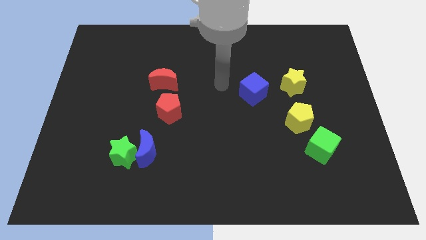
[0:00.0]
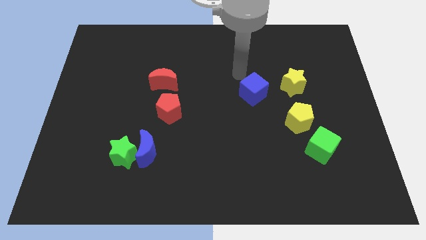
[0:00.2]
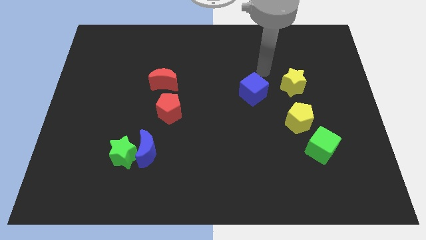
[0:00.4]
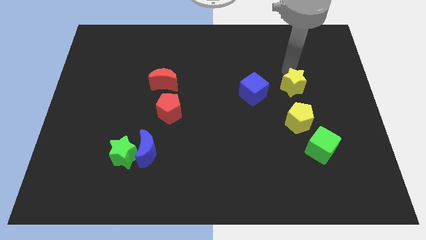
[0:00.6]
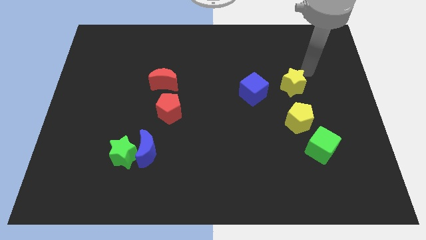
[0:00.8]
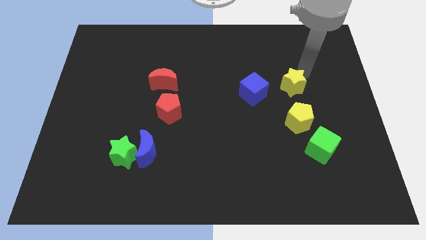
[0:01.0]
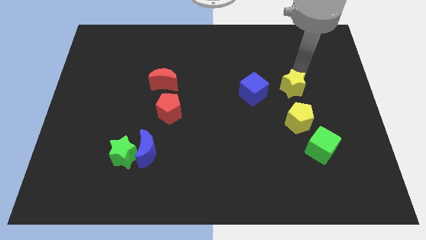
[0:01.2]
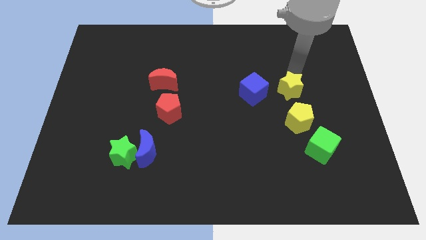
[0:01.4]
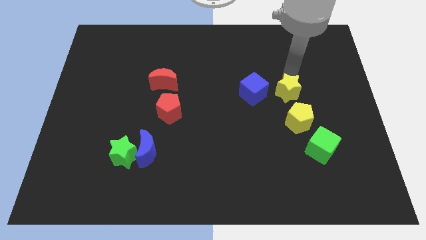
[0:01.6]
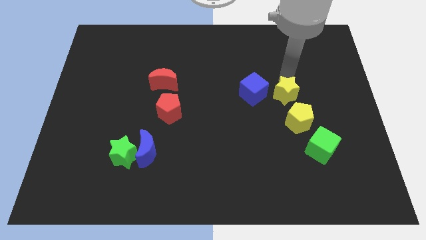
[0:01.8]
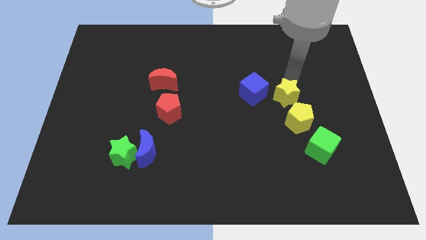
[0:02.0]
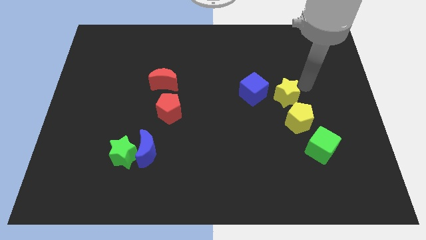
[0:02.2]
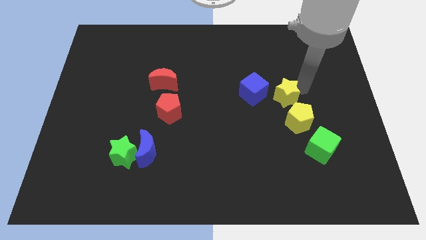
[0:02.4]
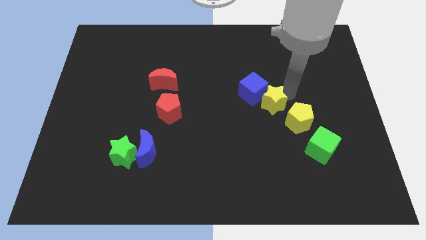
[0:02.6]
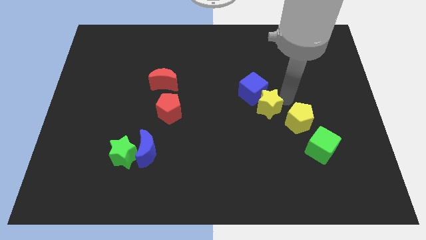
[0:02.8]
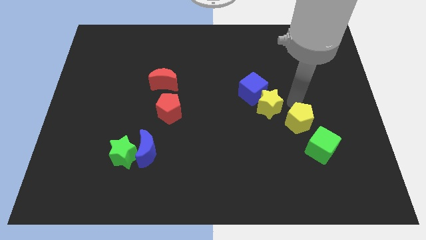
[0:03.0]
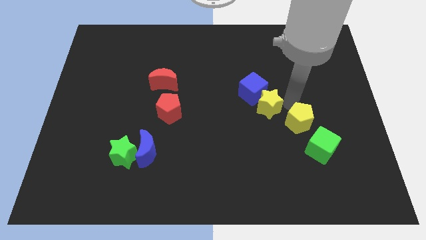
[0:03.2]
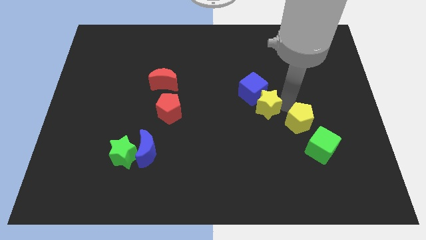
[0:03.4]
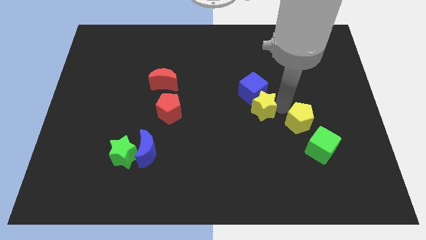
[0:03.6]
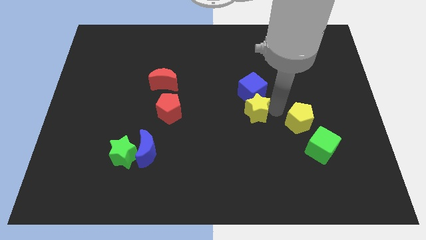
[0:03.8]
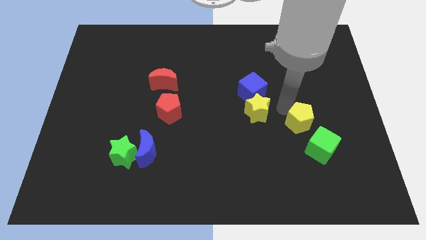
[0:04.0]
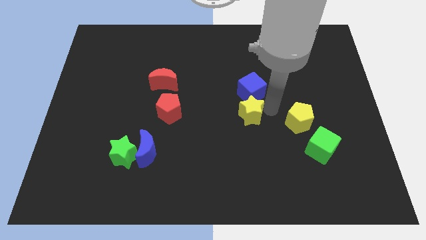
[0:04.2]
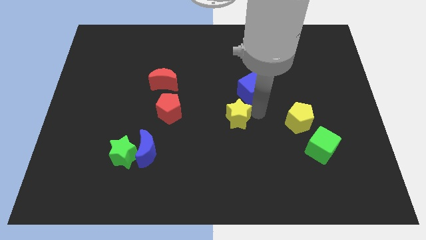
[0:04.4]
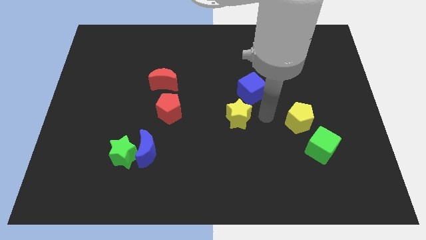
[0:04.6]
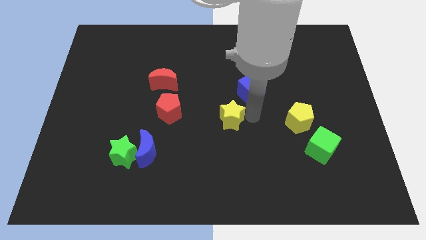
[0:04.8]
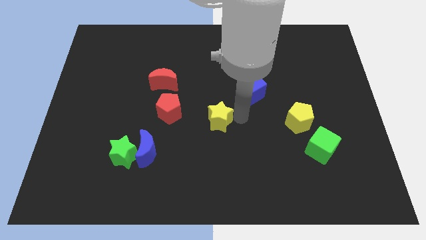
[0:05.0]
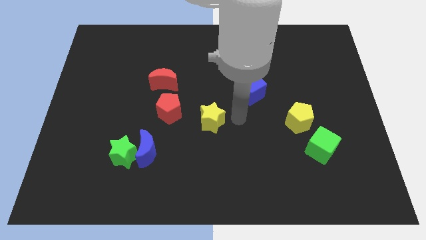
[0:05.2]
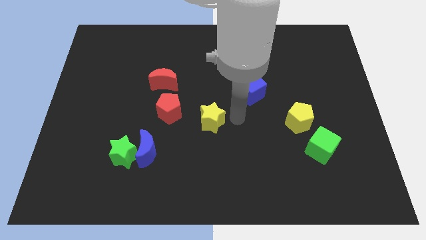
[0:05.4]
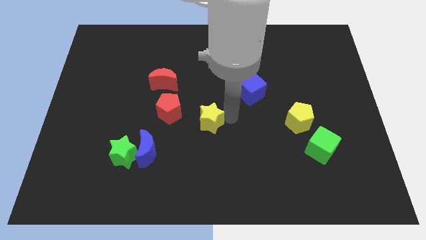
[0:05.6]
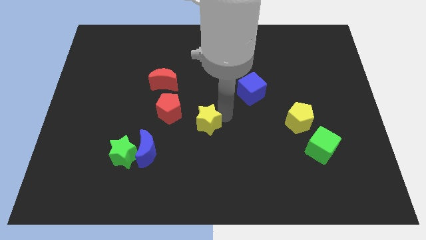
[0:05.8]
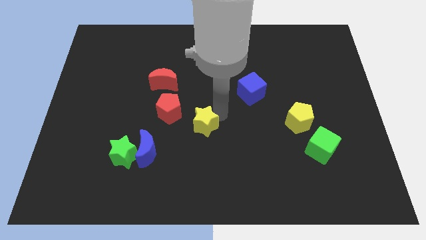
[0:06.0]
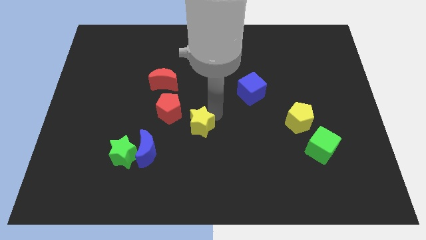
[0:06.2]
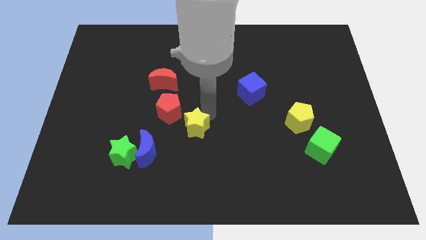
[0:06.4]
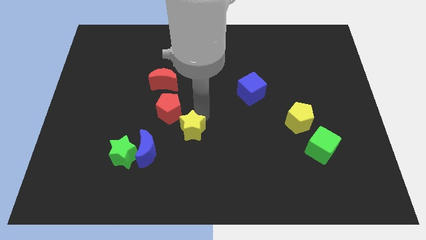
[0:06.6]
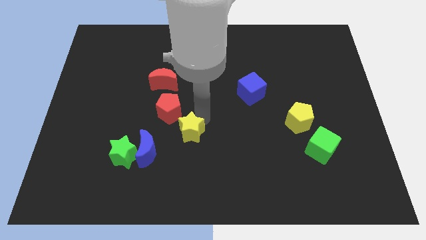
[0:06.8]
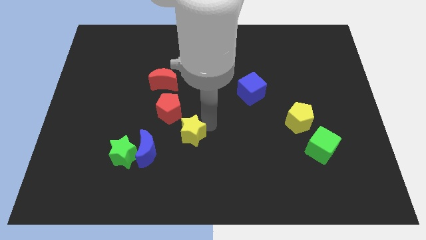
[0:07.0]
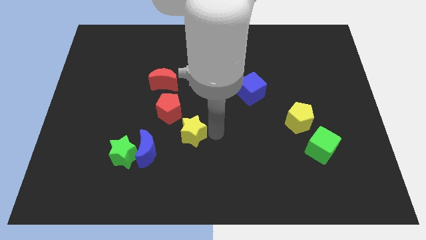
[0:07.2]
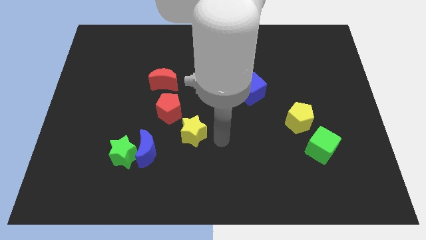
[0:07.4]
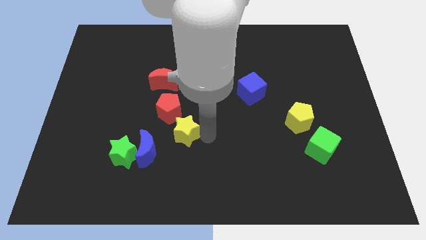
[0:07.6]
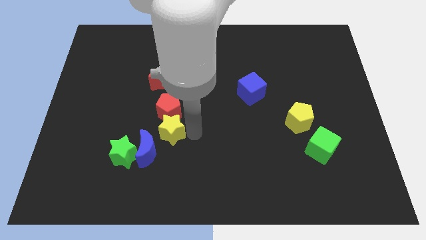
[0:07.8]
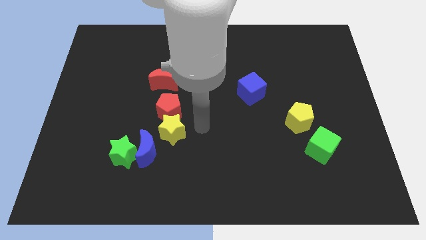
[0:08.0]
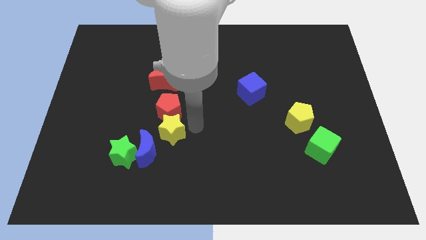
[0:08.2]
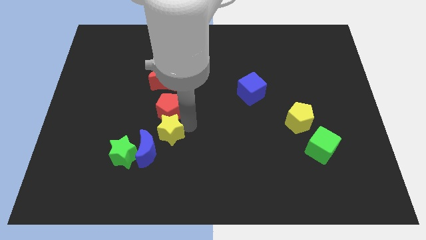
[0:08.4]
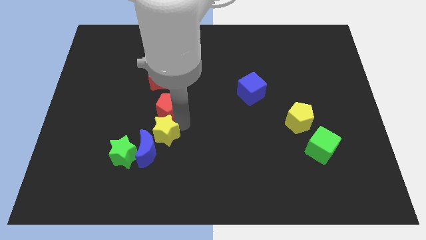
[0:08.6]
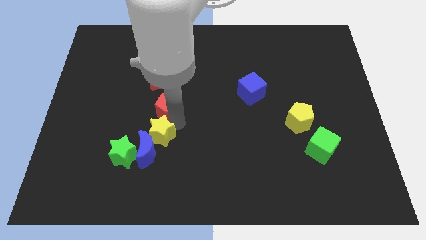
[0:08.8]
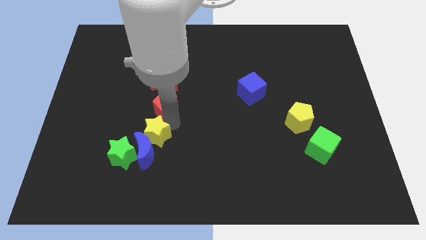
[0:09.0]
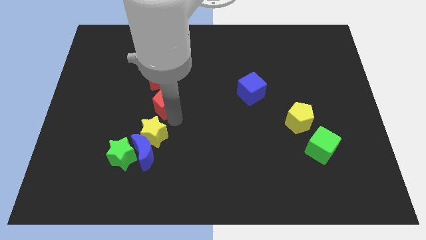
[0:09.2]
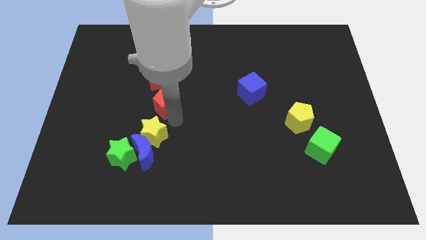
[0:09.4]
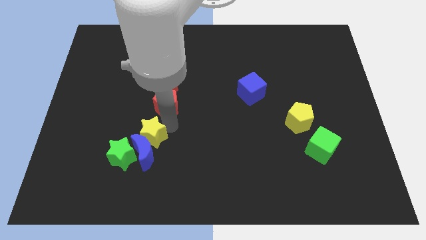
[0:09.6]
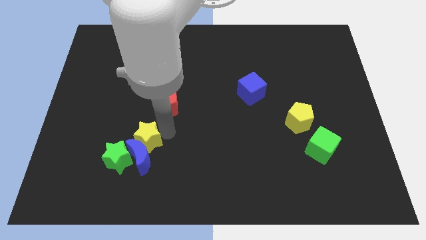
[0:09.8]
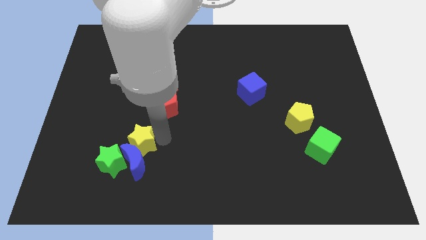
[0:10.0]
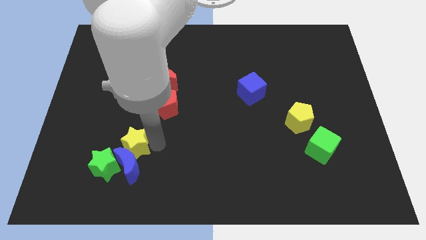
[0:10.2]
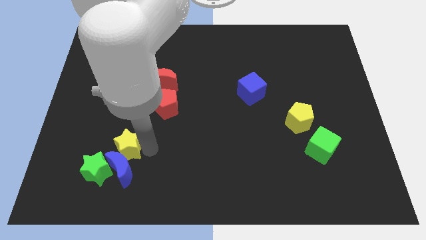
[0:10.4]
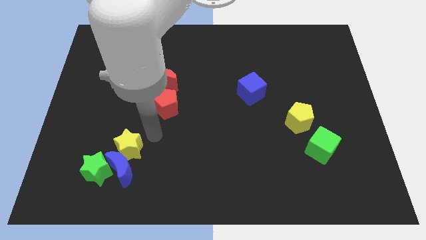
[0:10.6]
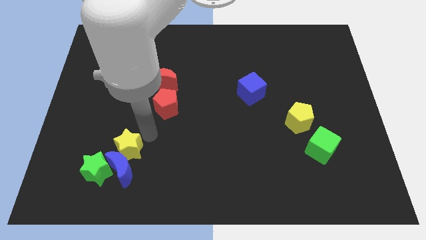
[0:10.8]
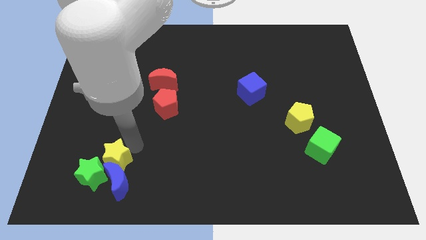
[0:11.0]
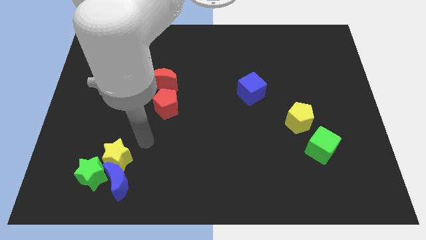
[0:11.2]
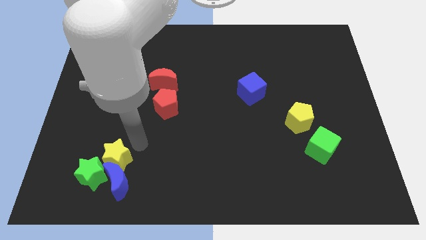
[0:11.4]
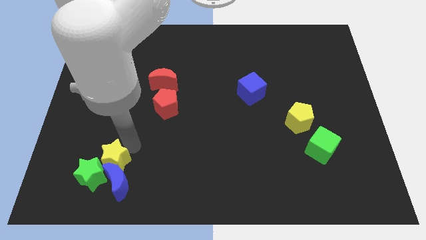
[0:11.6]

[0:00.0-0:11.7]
move the yellow star next to the green star
